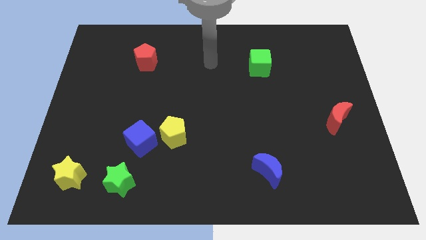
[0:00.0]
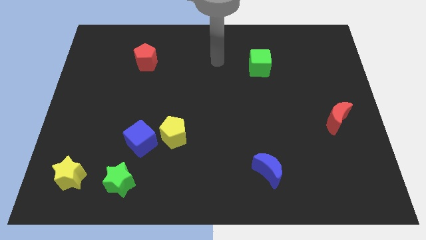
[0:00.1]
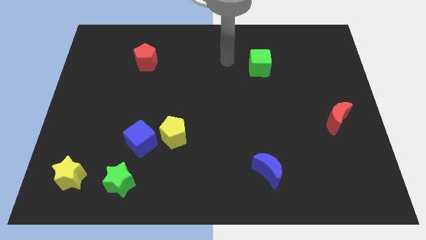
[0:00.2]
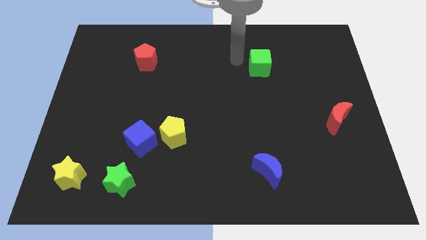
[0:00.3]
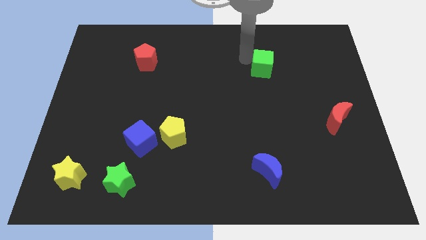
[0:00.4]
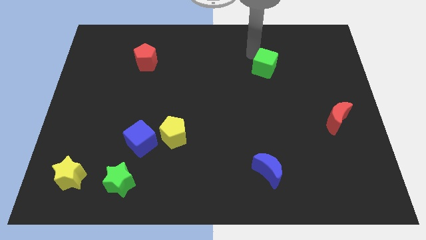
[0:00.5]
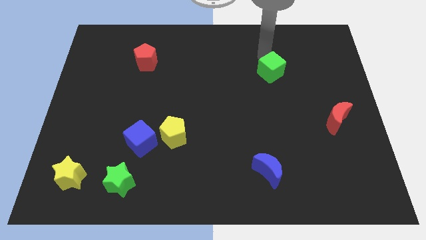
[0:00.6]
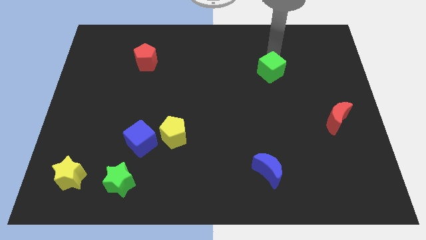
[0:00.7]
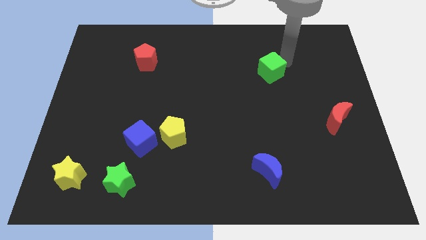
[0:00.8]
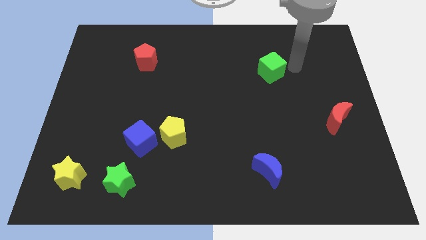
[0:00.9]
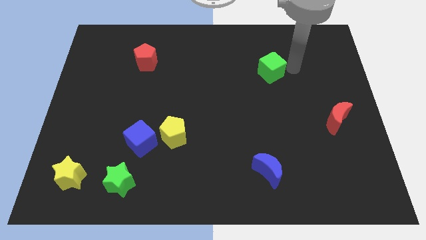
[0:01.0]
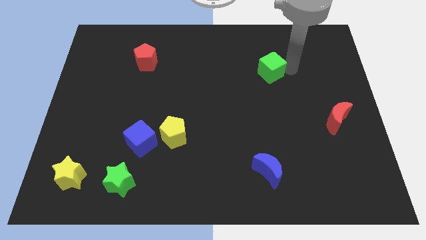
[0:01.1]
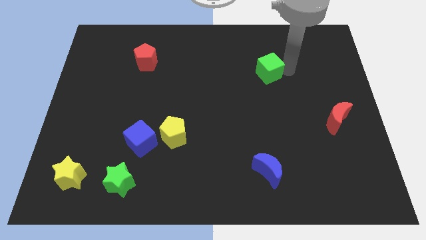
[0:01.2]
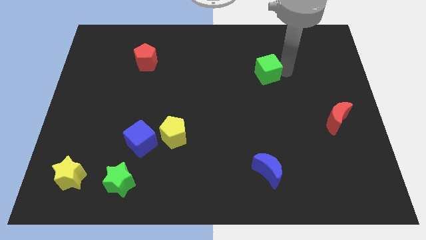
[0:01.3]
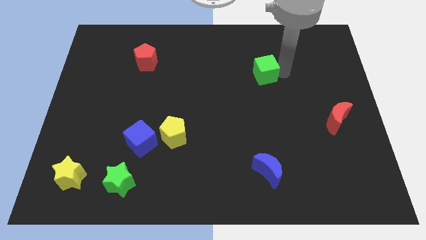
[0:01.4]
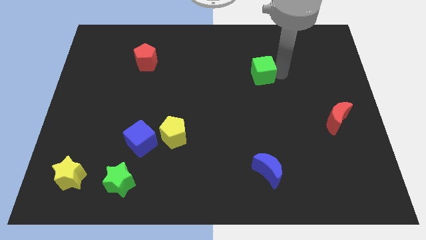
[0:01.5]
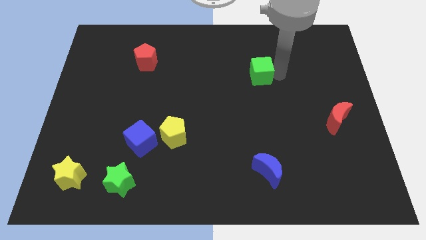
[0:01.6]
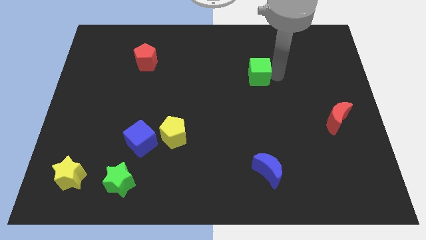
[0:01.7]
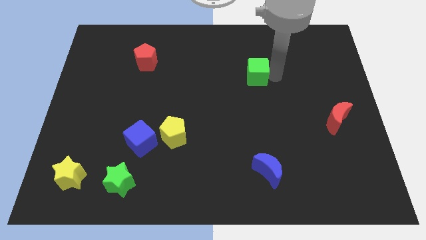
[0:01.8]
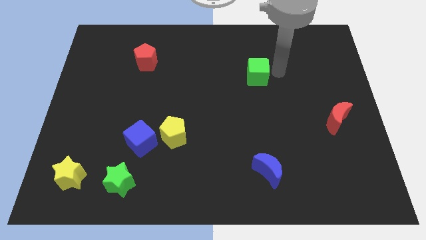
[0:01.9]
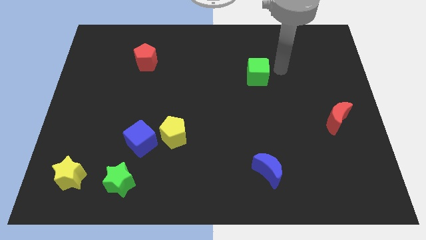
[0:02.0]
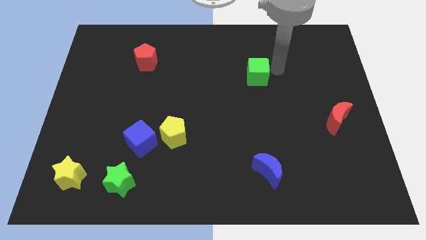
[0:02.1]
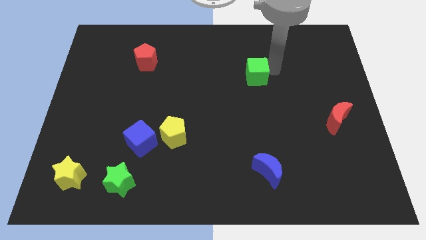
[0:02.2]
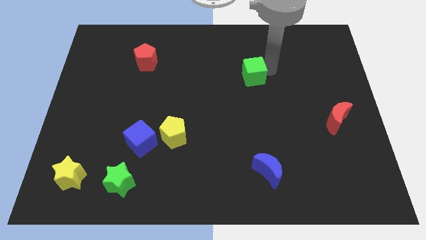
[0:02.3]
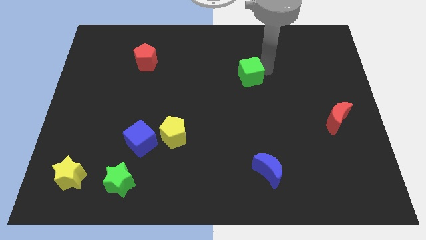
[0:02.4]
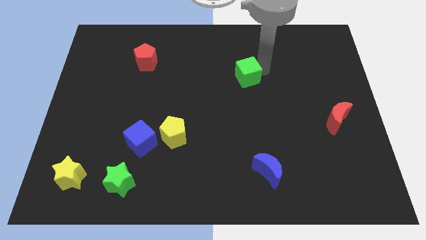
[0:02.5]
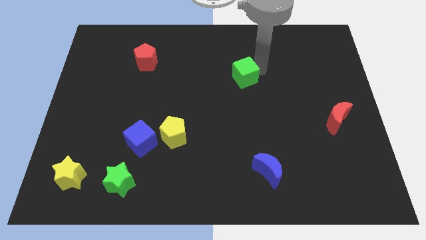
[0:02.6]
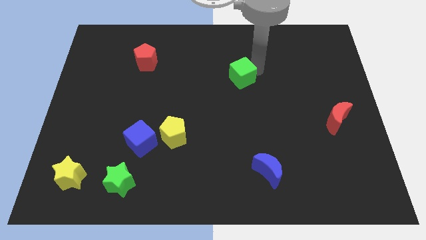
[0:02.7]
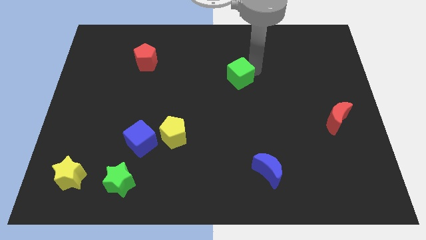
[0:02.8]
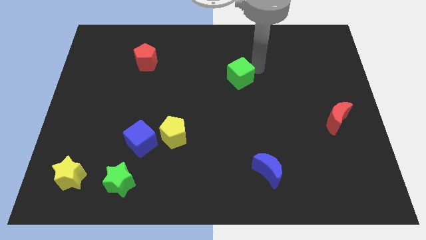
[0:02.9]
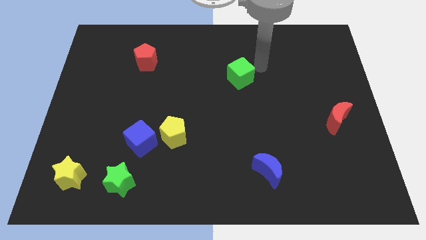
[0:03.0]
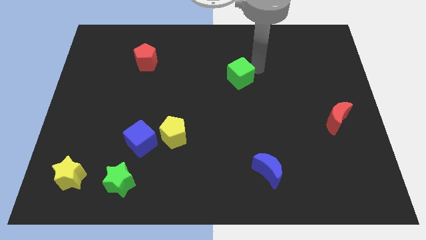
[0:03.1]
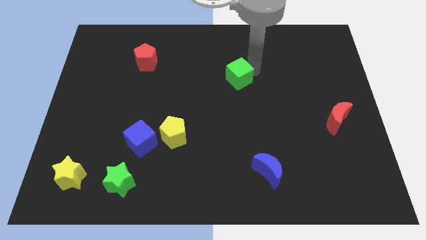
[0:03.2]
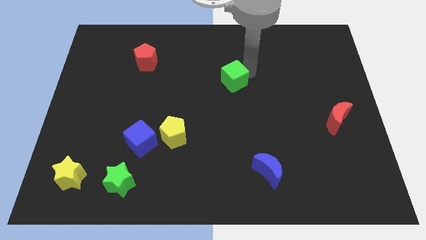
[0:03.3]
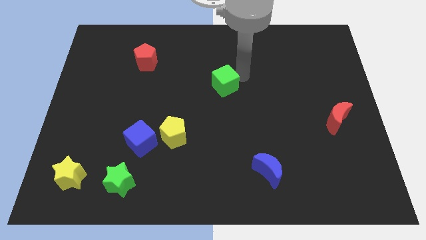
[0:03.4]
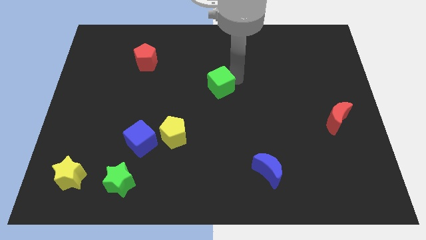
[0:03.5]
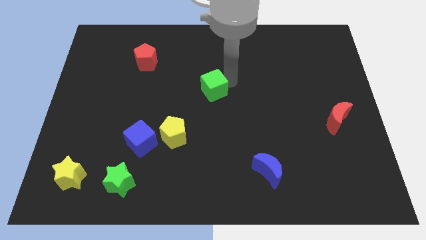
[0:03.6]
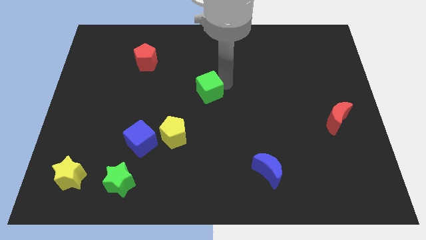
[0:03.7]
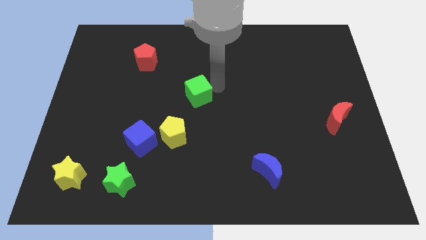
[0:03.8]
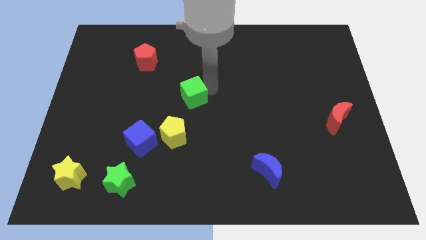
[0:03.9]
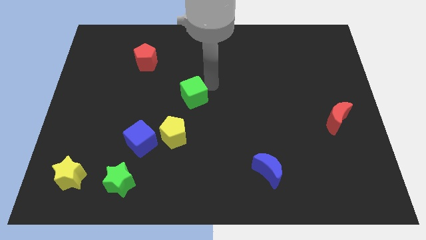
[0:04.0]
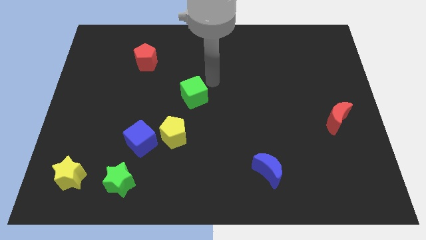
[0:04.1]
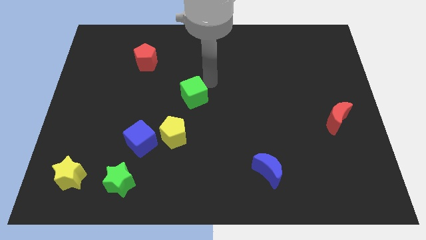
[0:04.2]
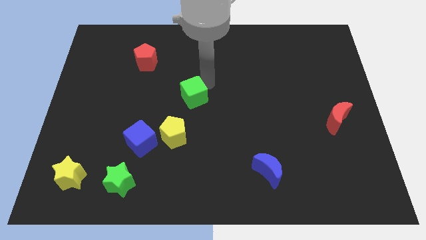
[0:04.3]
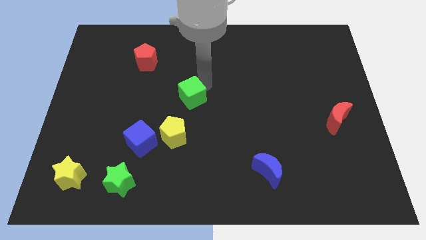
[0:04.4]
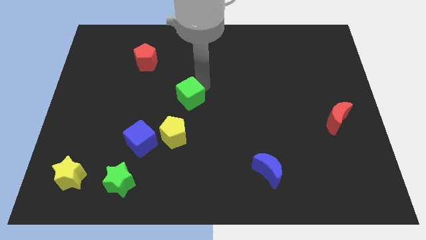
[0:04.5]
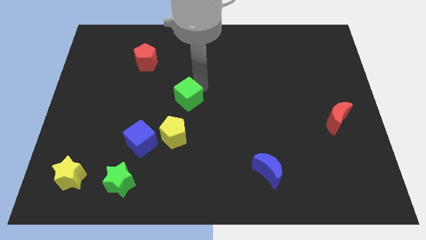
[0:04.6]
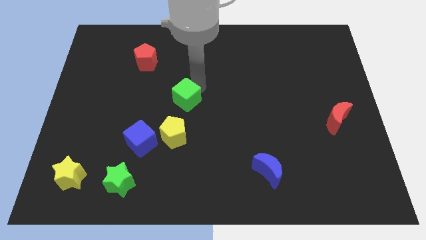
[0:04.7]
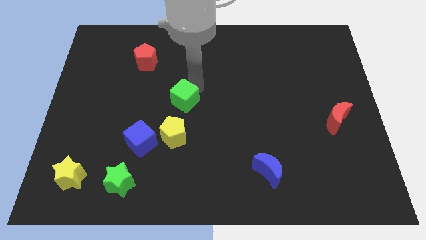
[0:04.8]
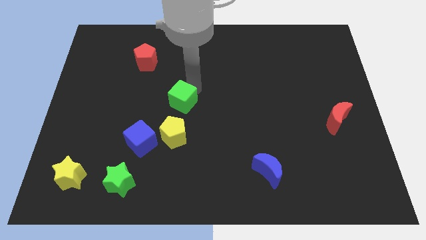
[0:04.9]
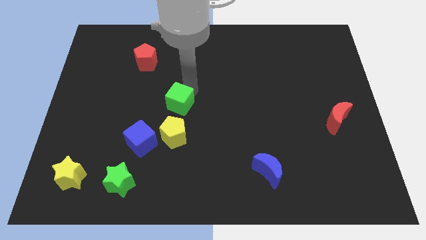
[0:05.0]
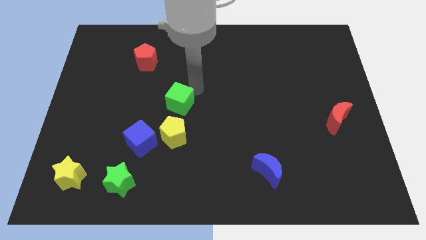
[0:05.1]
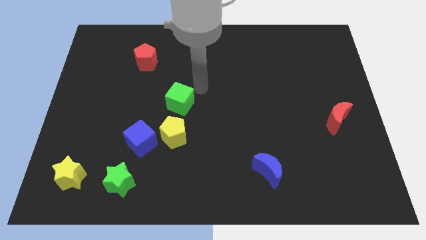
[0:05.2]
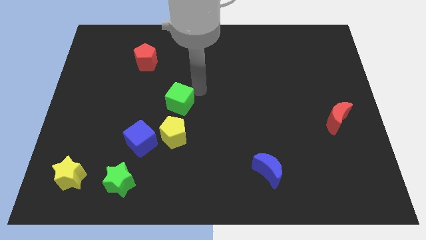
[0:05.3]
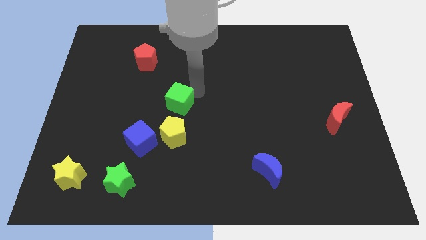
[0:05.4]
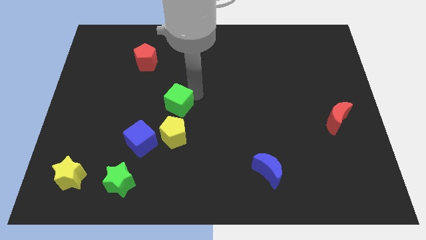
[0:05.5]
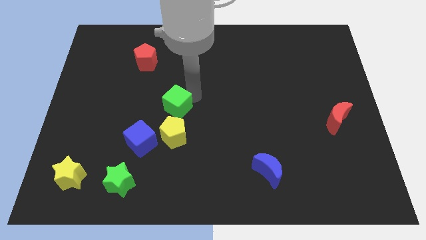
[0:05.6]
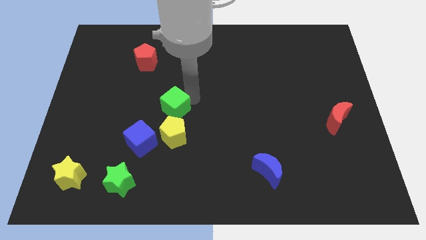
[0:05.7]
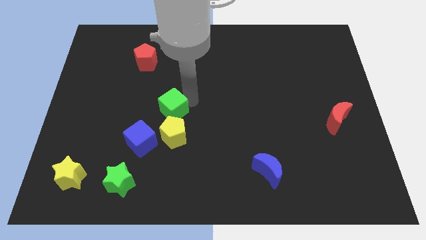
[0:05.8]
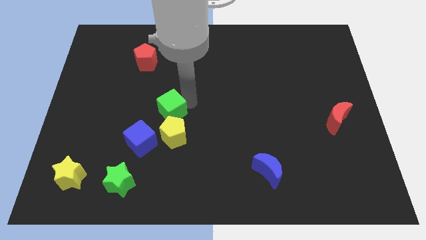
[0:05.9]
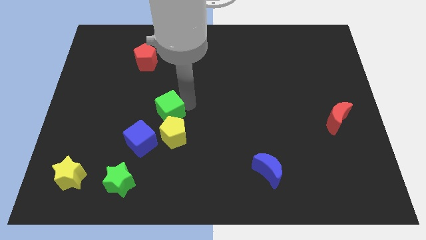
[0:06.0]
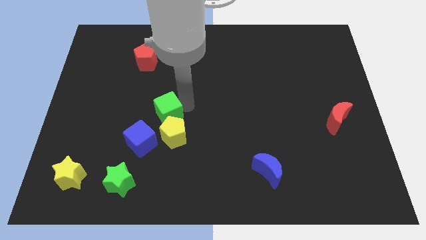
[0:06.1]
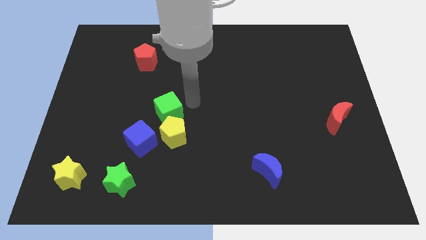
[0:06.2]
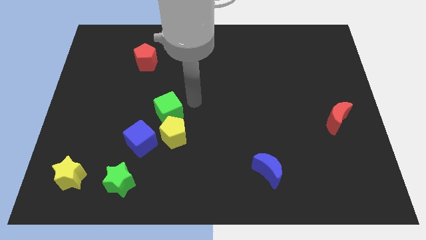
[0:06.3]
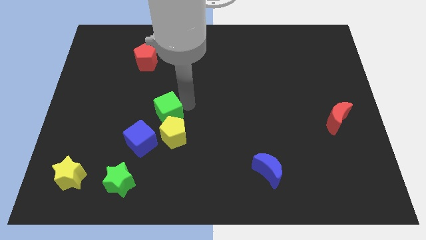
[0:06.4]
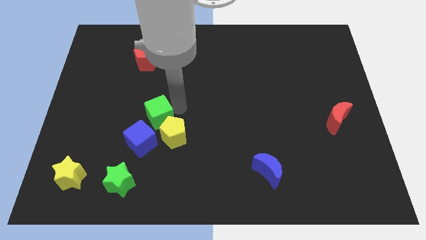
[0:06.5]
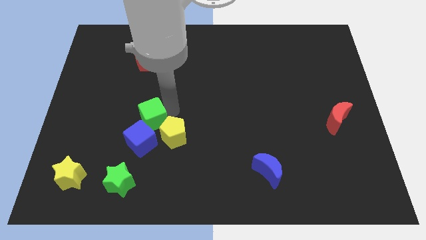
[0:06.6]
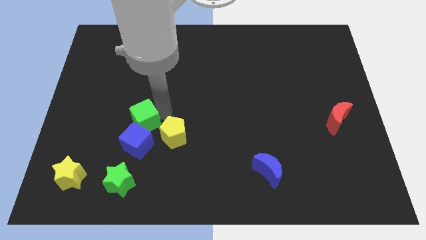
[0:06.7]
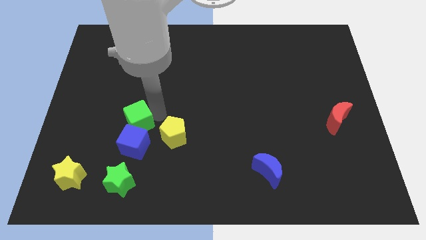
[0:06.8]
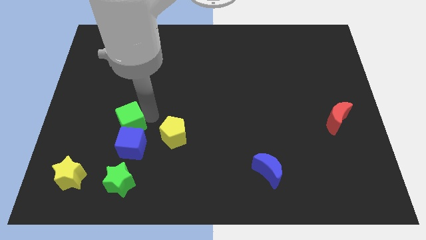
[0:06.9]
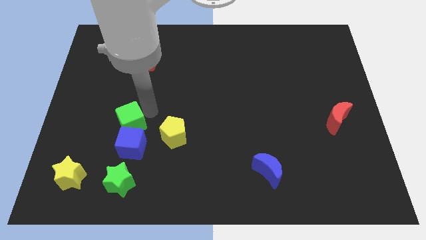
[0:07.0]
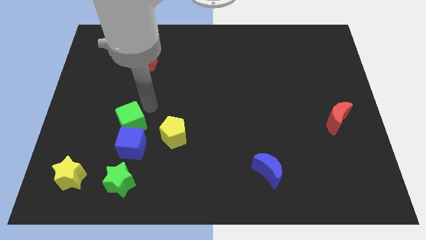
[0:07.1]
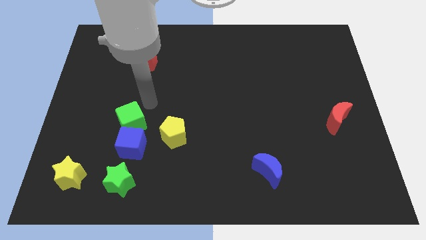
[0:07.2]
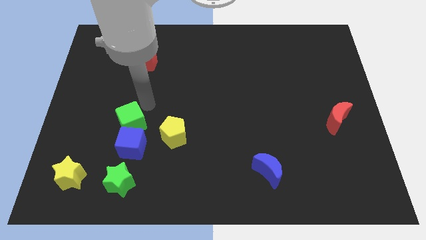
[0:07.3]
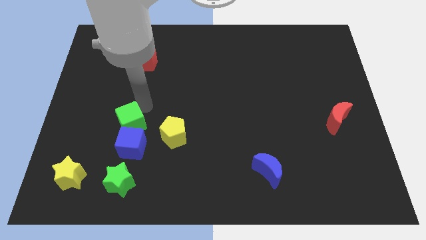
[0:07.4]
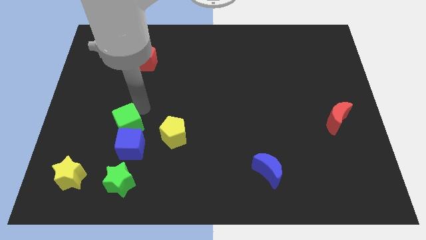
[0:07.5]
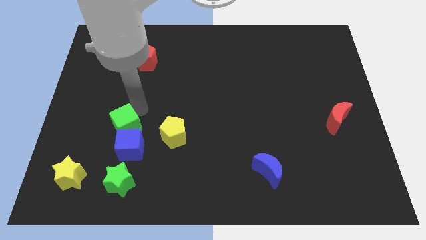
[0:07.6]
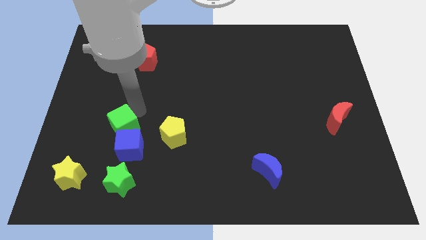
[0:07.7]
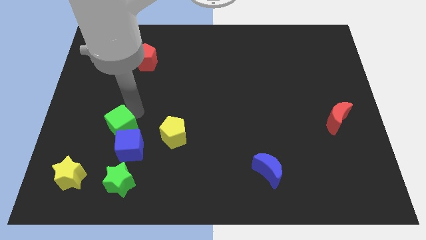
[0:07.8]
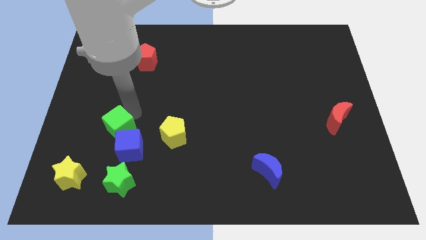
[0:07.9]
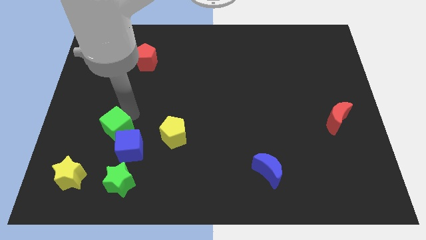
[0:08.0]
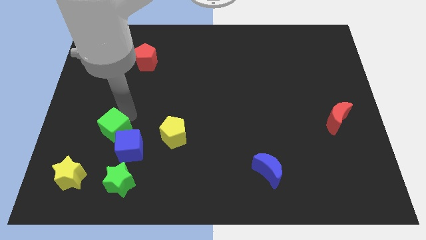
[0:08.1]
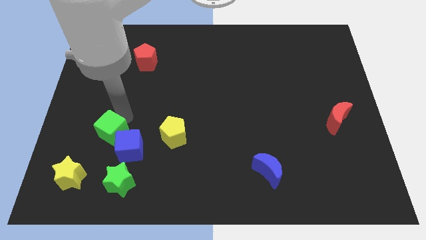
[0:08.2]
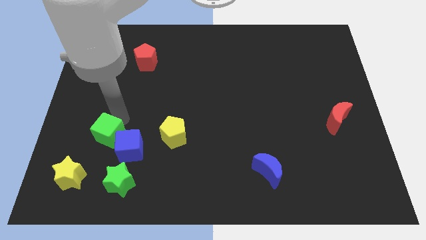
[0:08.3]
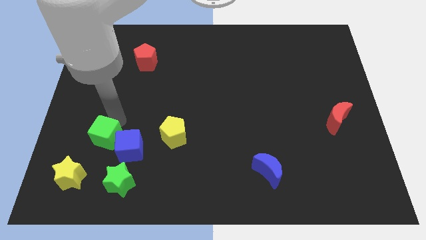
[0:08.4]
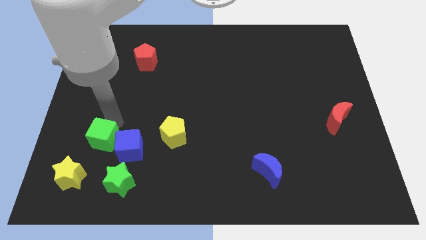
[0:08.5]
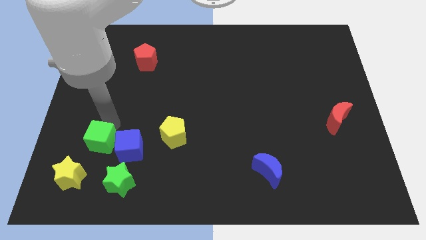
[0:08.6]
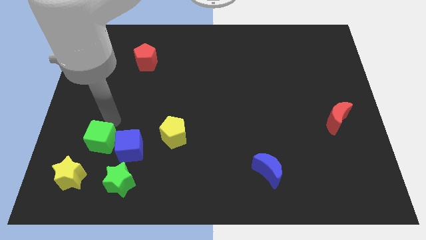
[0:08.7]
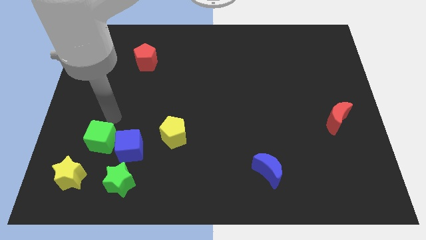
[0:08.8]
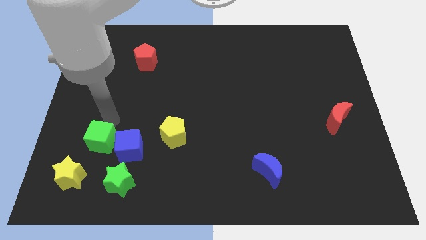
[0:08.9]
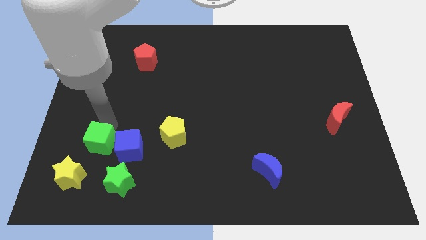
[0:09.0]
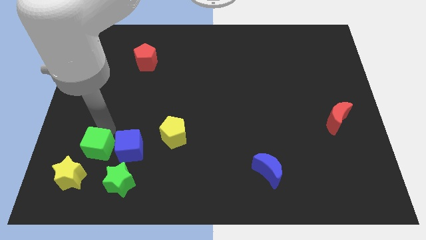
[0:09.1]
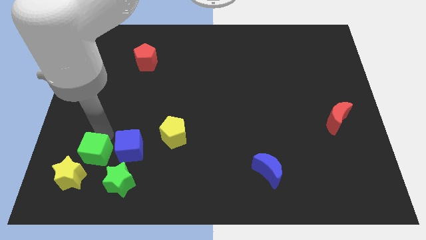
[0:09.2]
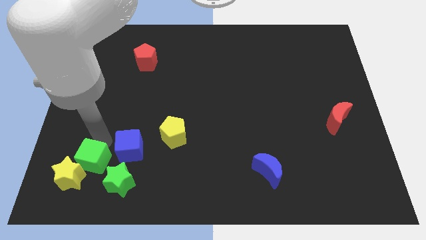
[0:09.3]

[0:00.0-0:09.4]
push the green cube next to the yellow star
